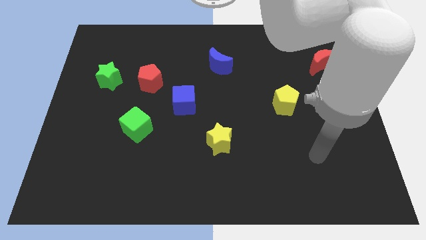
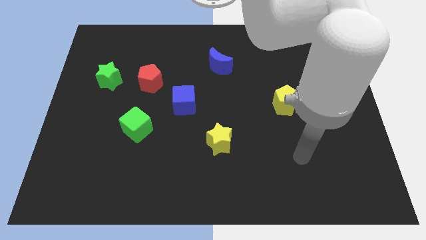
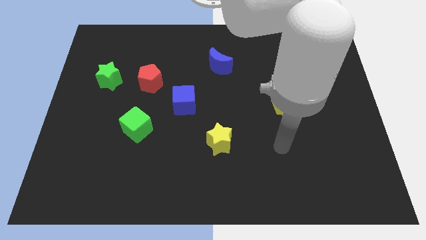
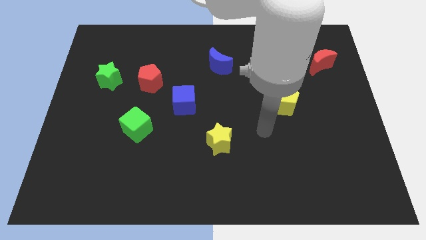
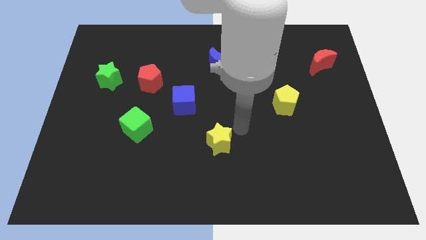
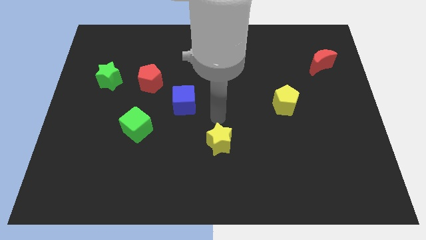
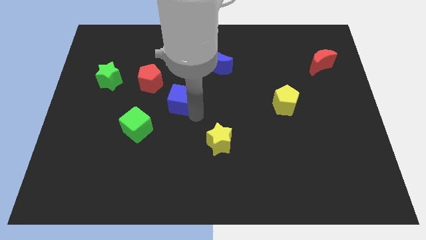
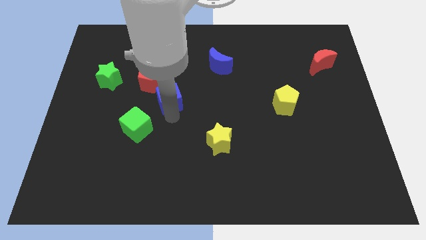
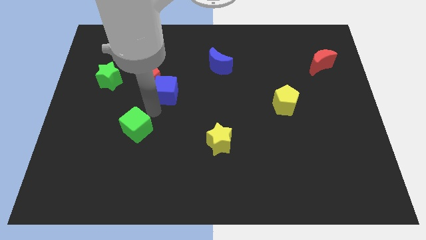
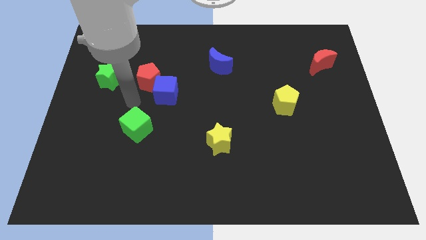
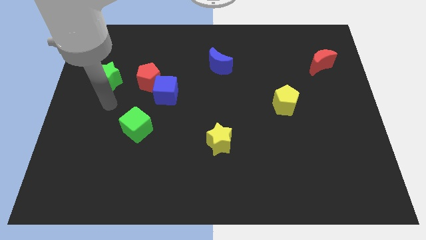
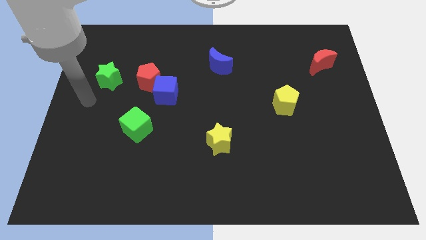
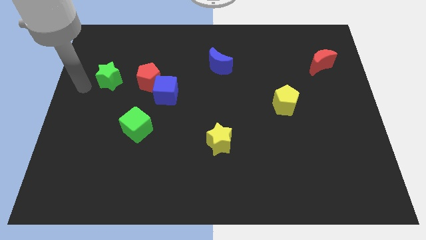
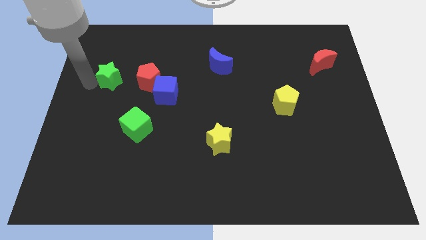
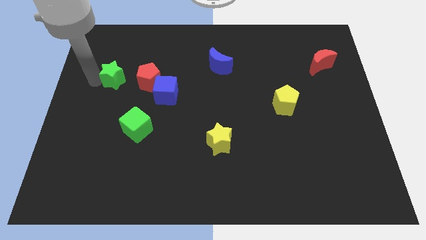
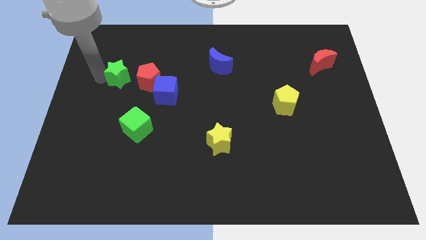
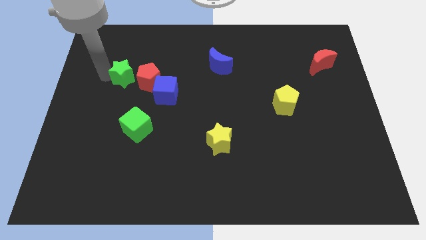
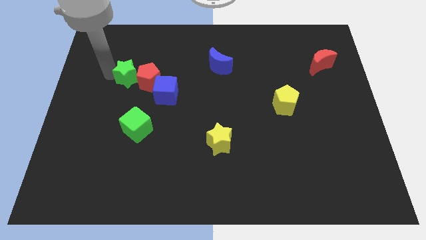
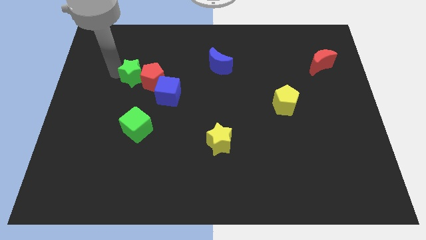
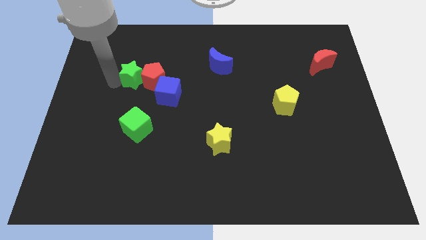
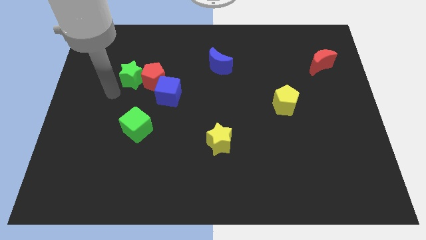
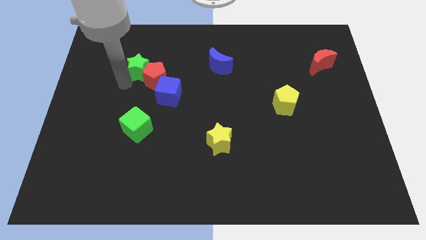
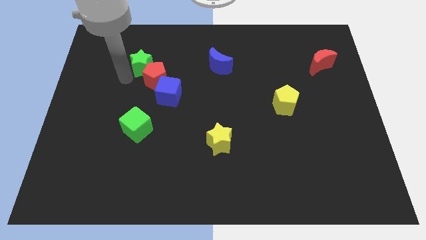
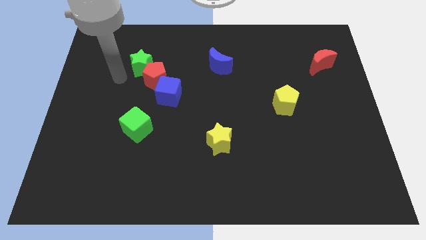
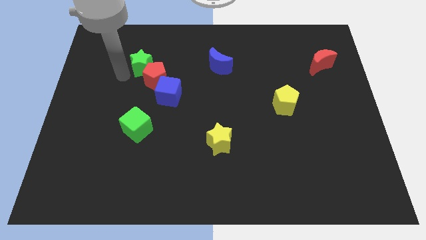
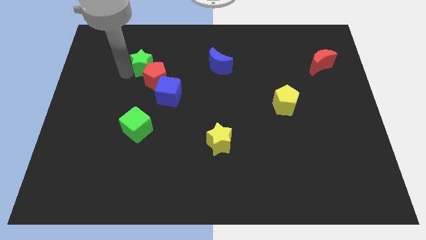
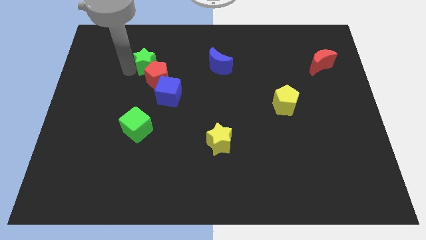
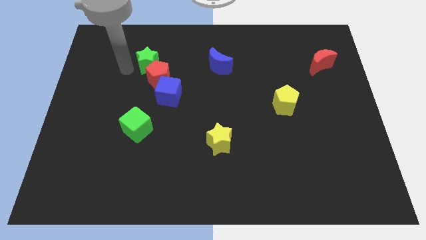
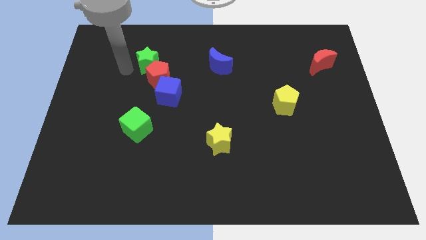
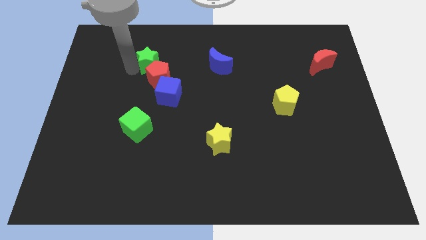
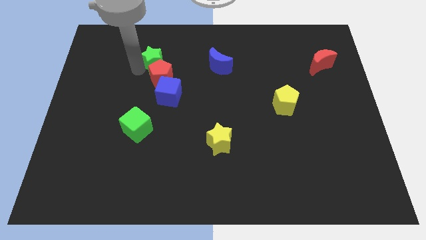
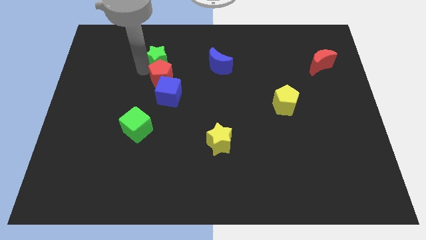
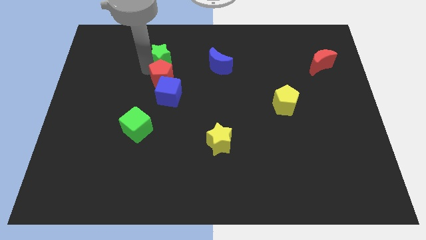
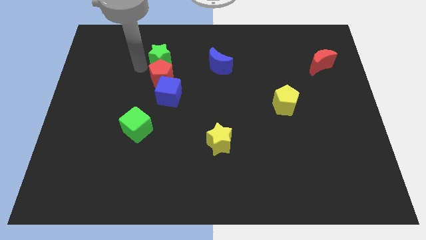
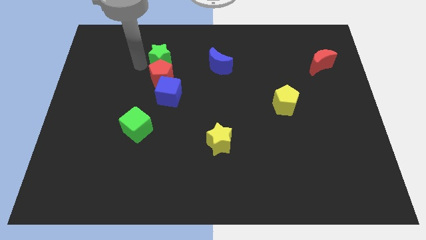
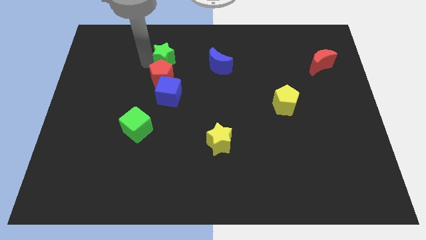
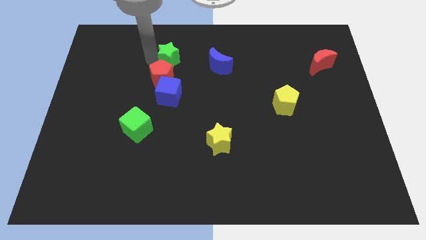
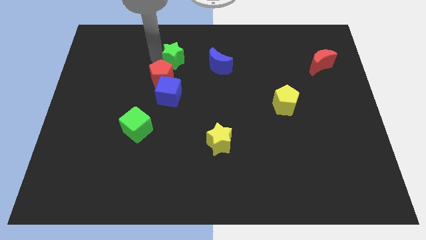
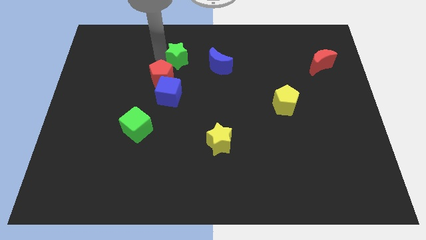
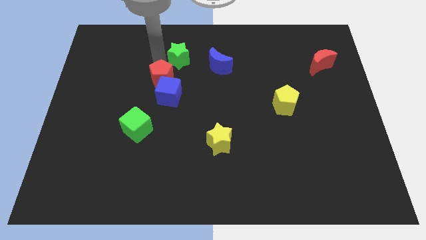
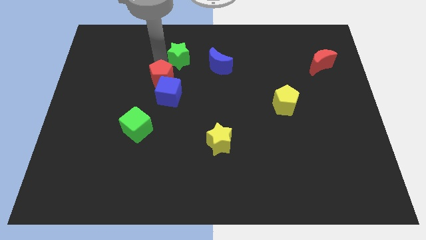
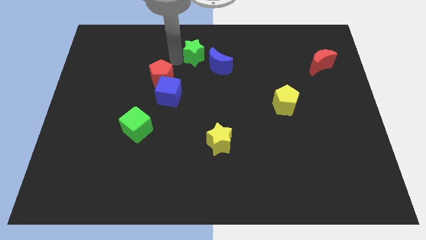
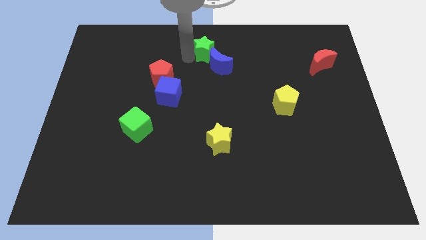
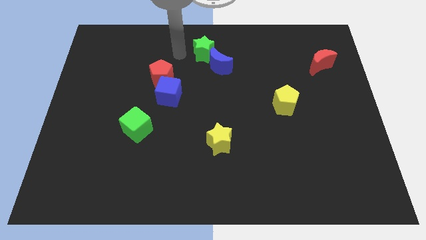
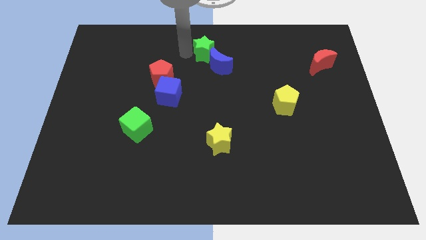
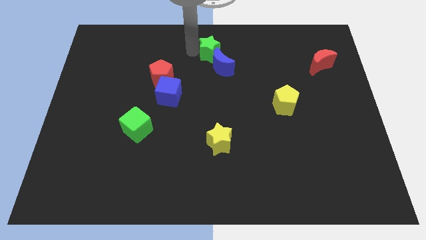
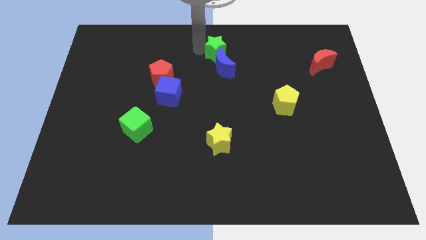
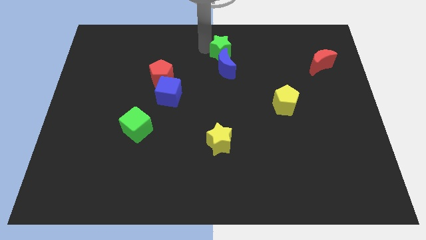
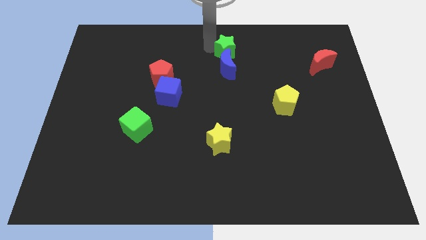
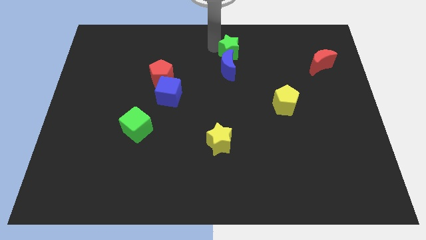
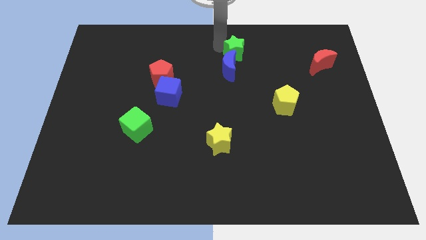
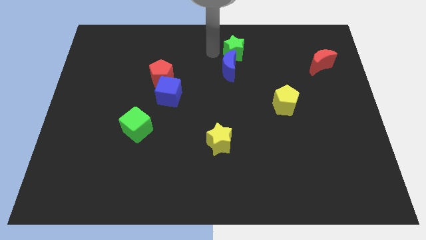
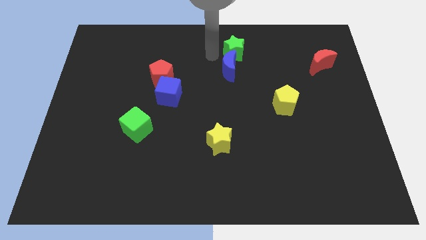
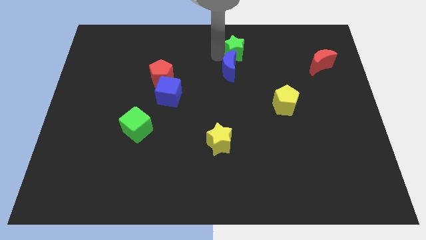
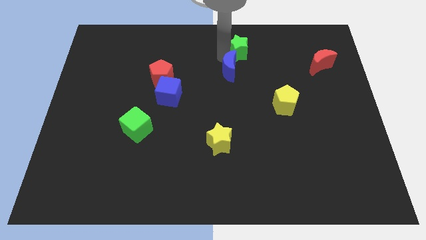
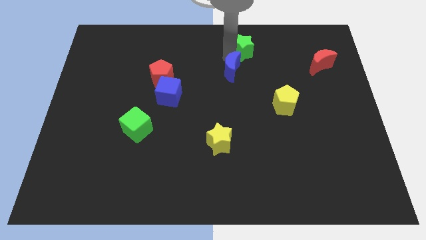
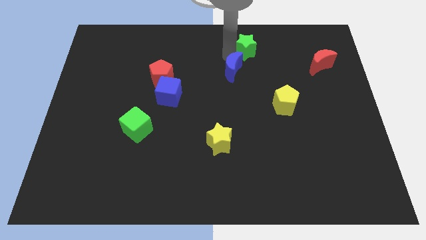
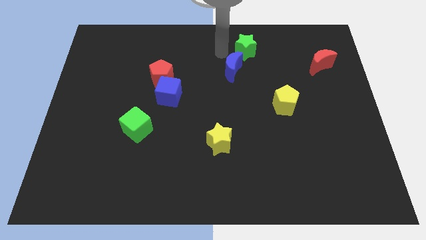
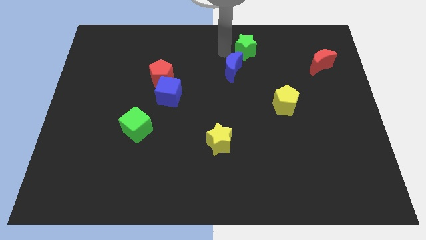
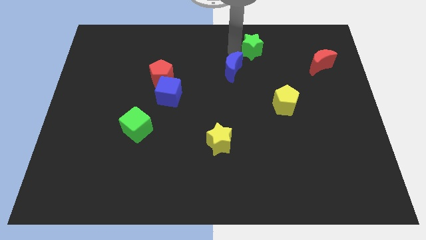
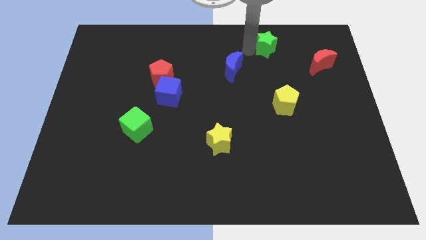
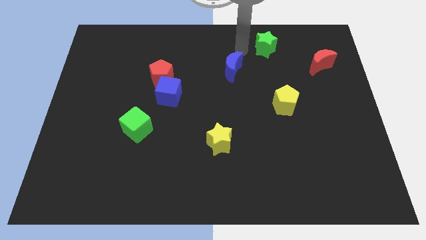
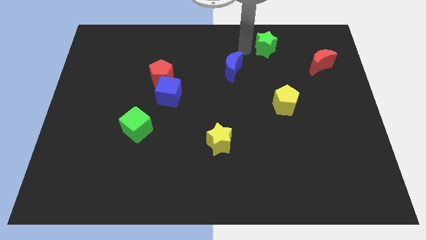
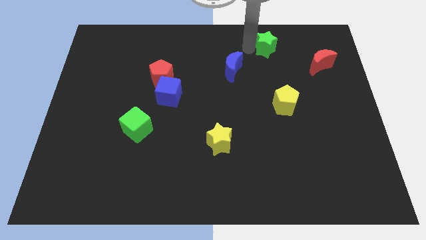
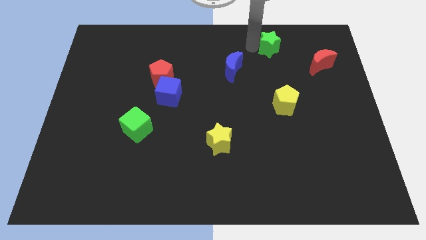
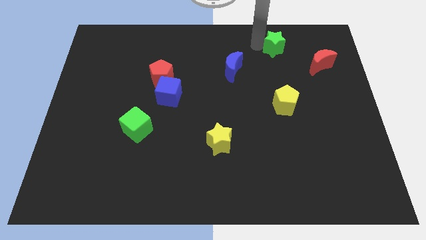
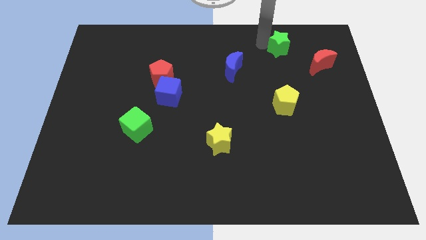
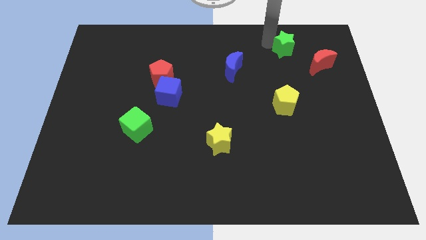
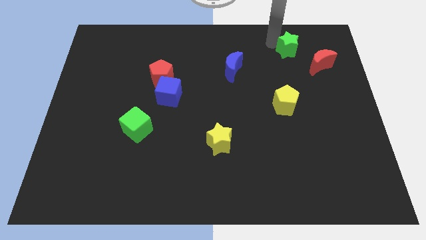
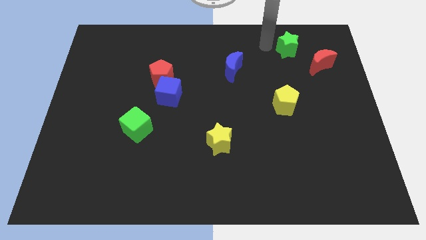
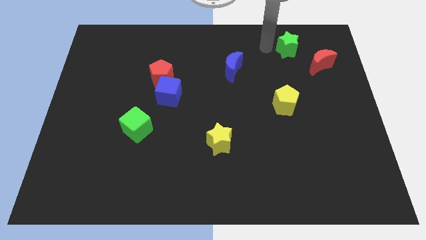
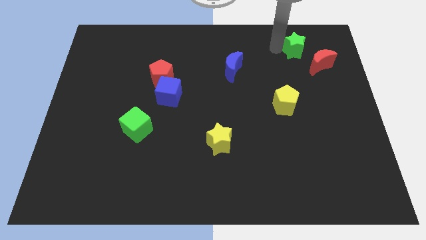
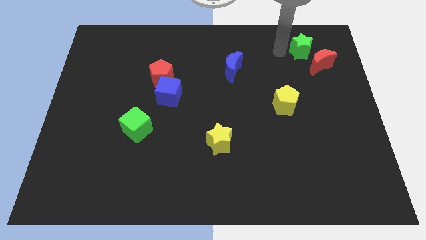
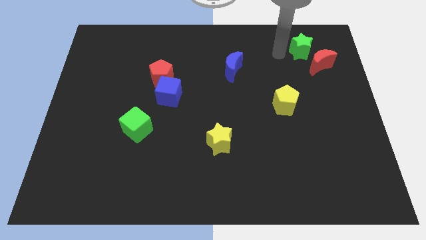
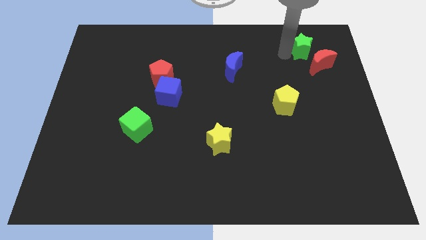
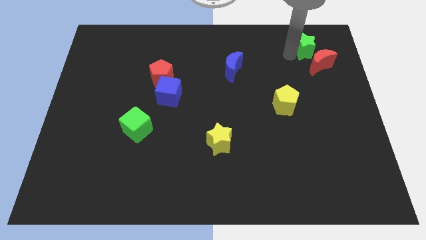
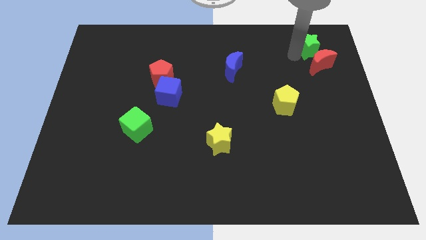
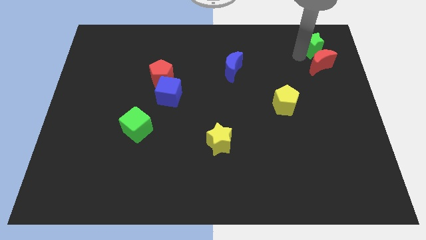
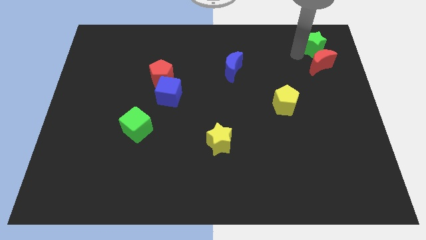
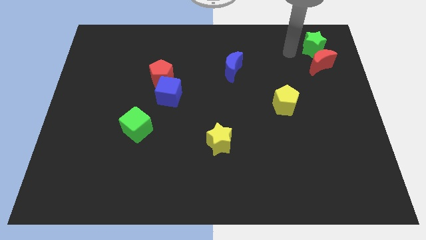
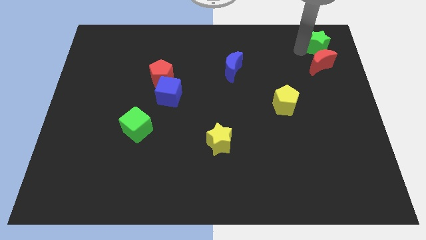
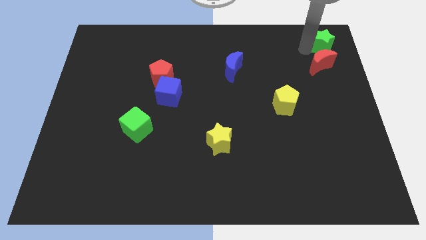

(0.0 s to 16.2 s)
slide the green star to the top right
